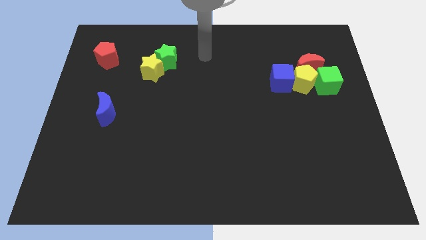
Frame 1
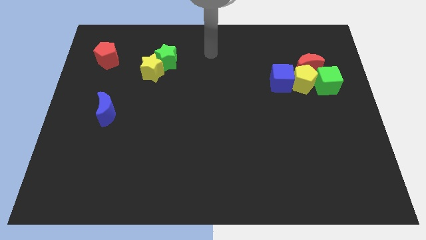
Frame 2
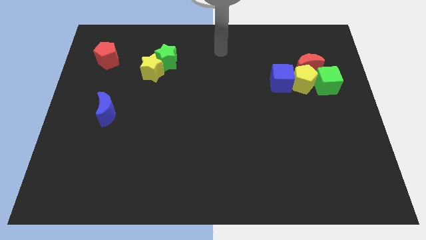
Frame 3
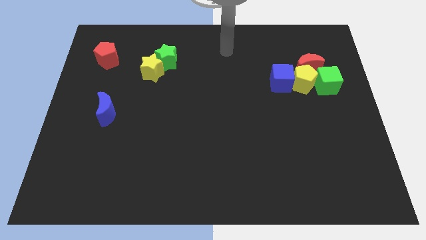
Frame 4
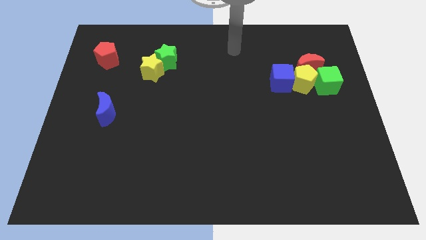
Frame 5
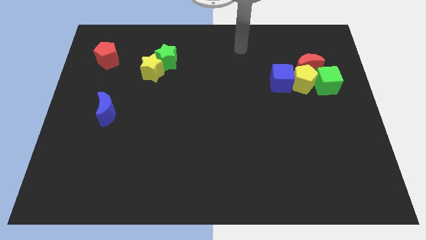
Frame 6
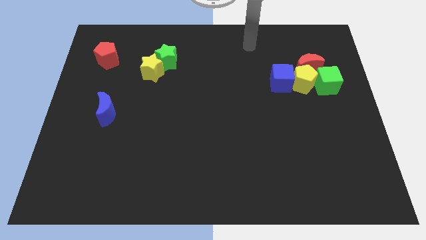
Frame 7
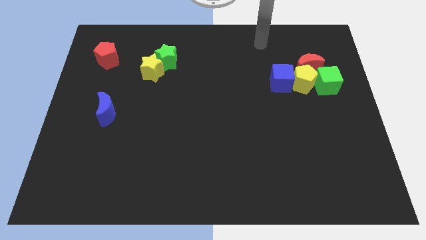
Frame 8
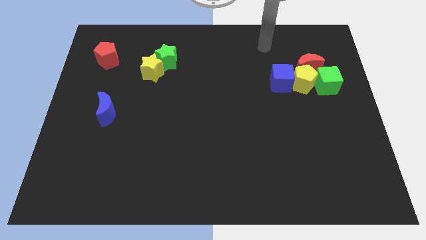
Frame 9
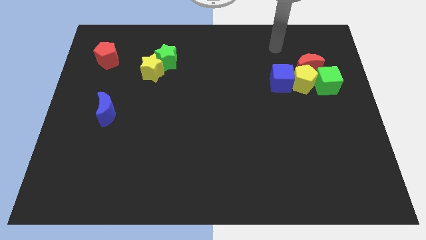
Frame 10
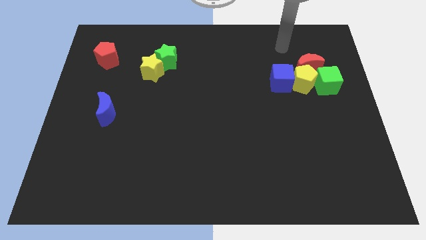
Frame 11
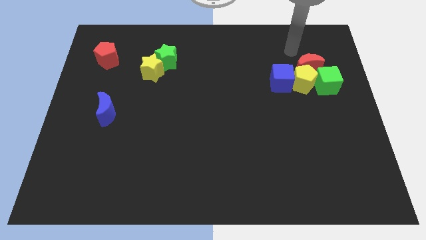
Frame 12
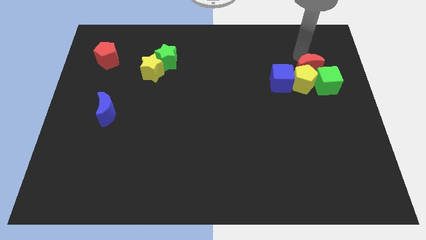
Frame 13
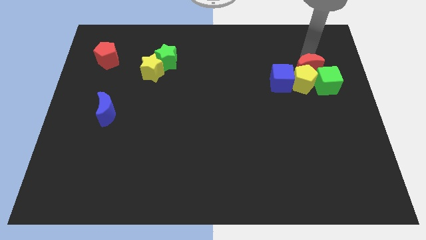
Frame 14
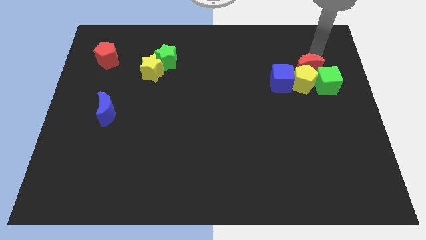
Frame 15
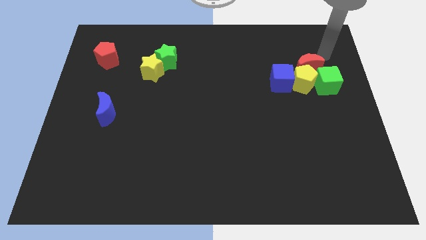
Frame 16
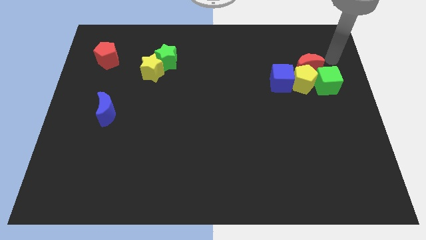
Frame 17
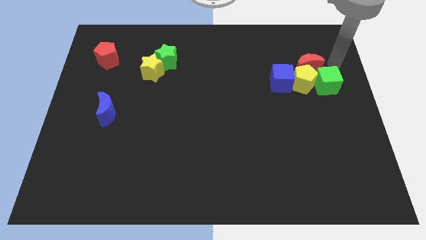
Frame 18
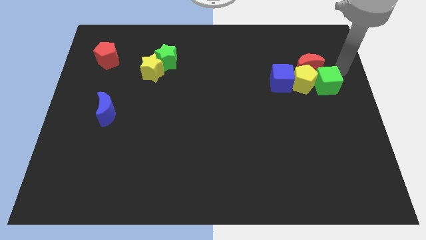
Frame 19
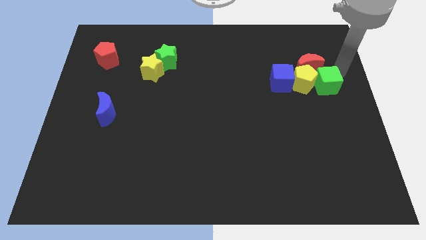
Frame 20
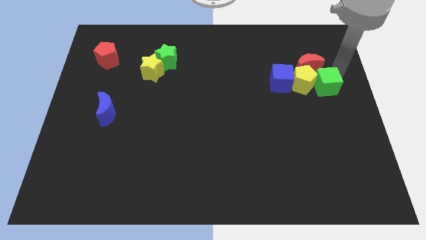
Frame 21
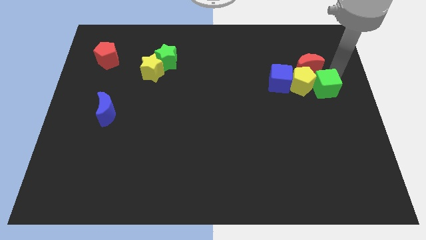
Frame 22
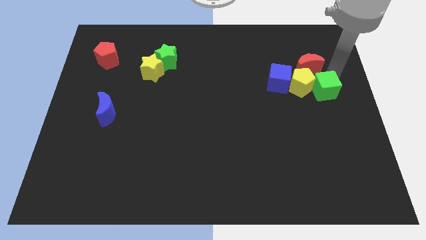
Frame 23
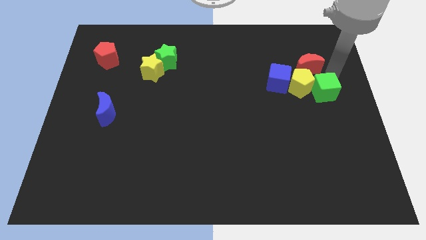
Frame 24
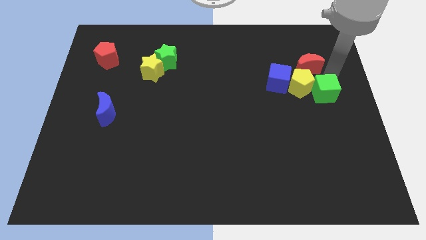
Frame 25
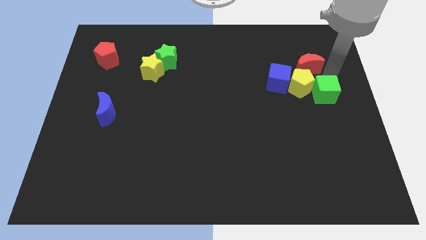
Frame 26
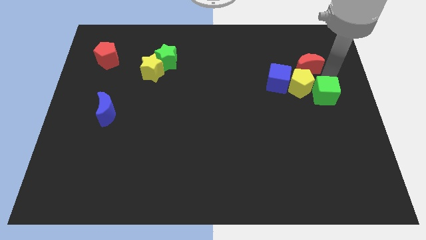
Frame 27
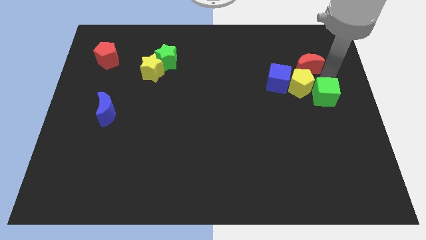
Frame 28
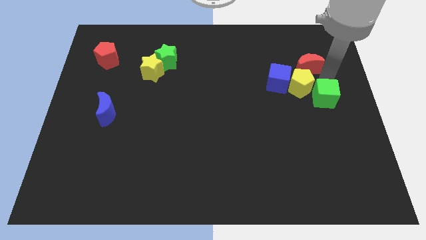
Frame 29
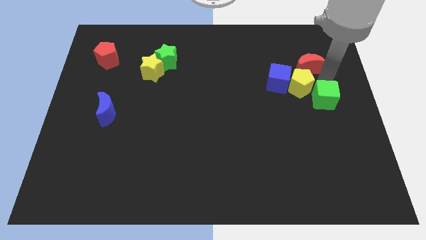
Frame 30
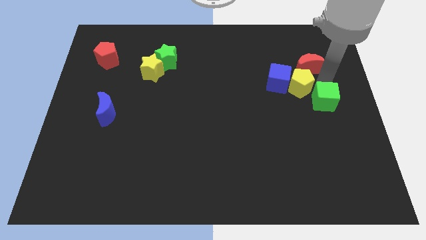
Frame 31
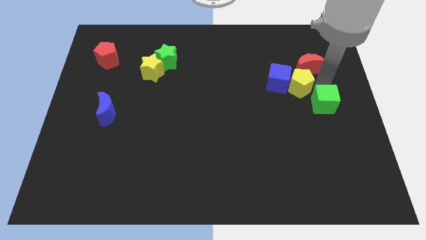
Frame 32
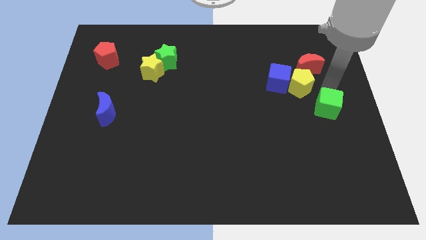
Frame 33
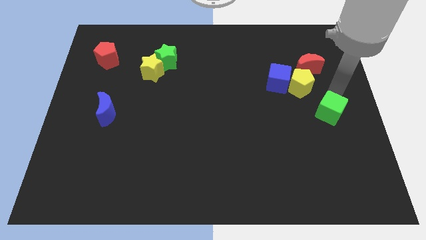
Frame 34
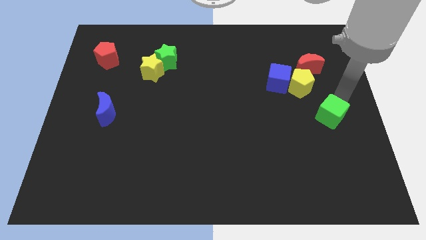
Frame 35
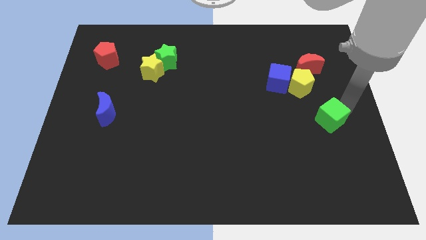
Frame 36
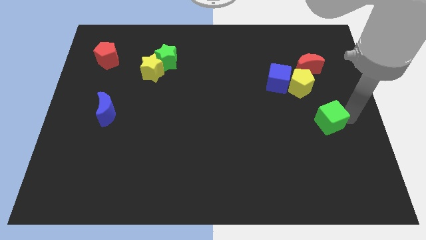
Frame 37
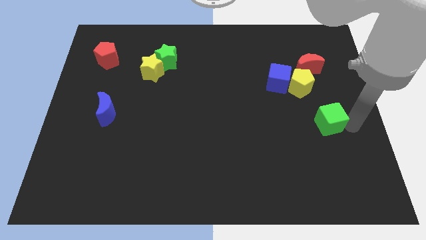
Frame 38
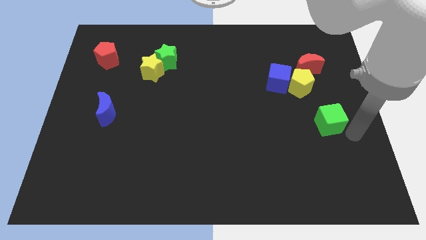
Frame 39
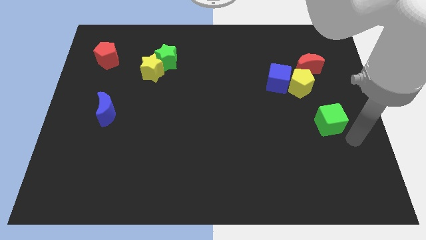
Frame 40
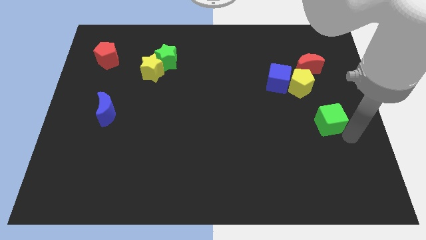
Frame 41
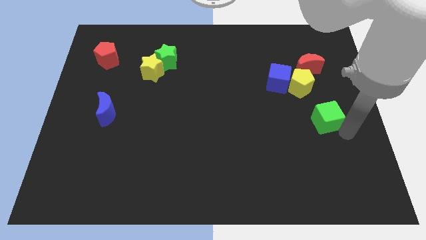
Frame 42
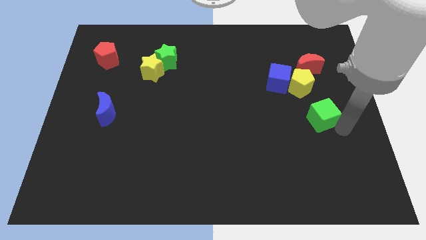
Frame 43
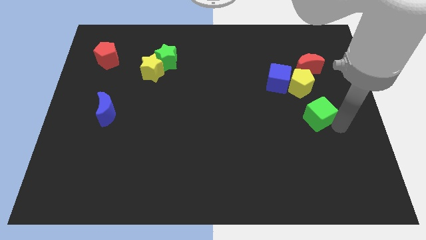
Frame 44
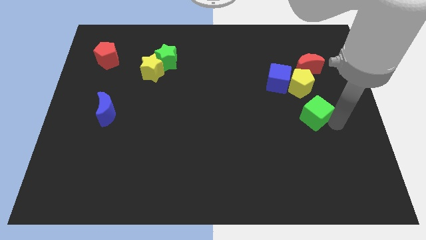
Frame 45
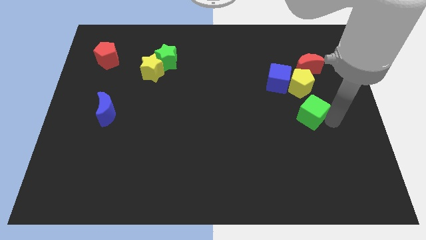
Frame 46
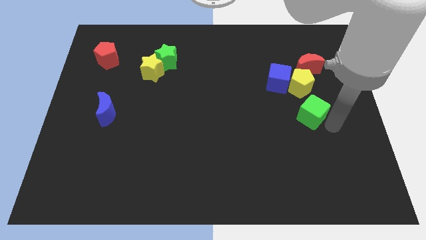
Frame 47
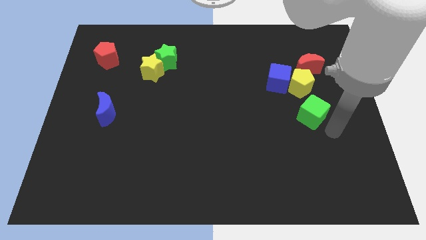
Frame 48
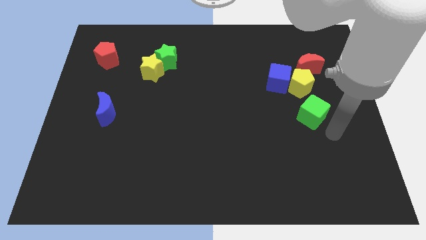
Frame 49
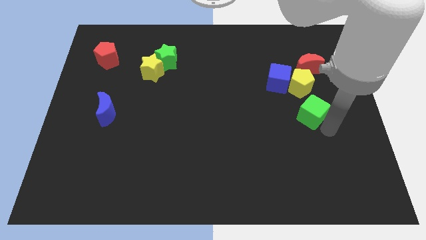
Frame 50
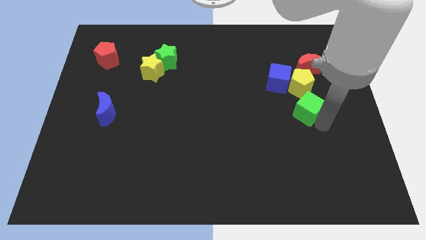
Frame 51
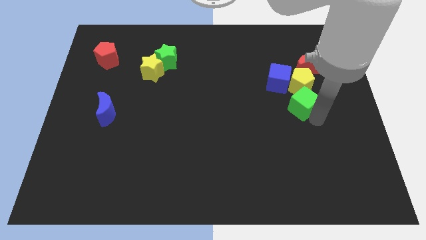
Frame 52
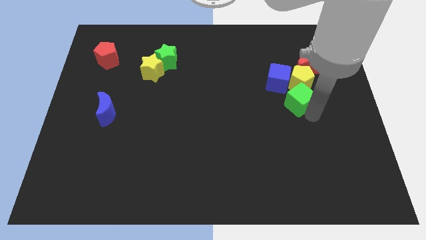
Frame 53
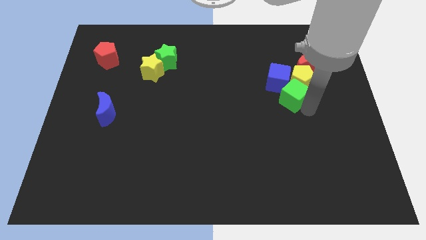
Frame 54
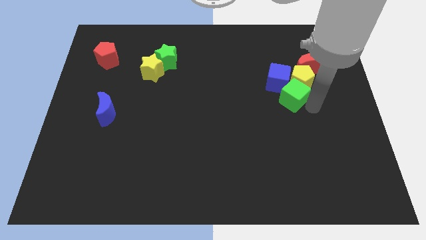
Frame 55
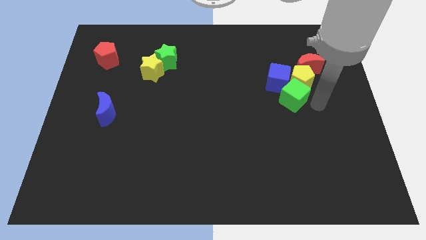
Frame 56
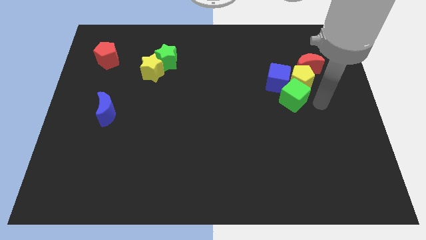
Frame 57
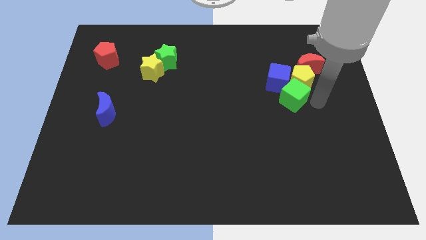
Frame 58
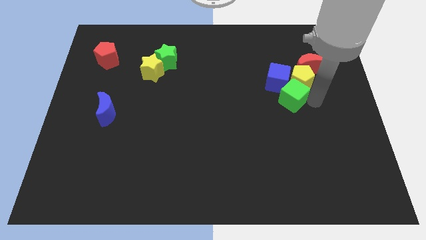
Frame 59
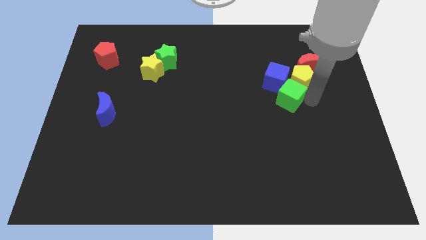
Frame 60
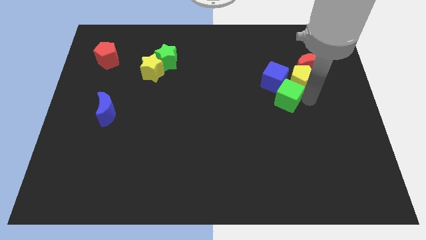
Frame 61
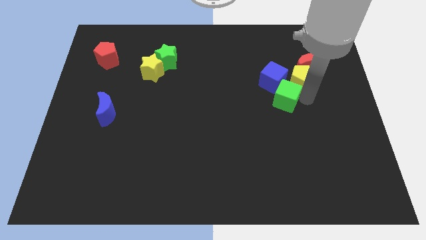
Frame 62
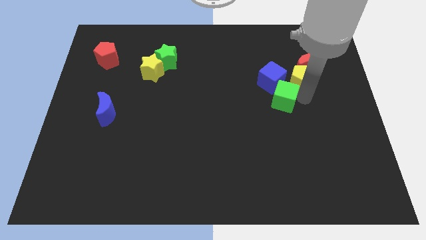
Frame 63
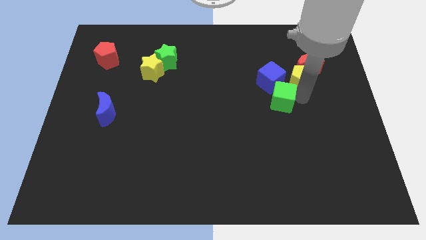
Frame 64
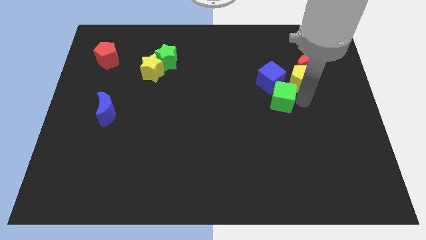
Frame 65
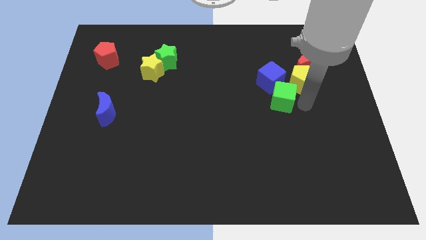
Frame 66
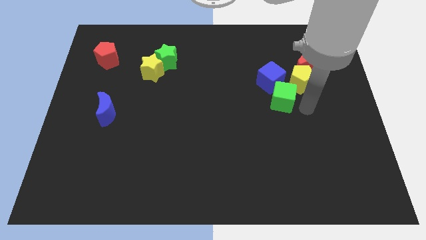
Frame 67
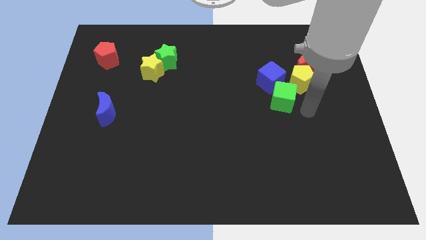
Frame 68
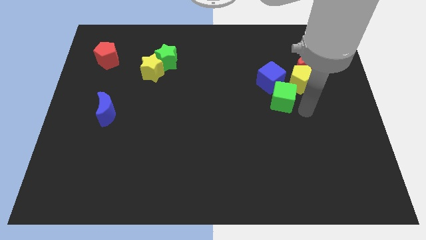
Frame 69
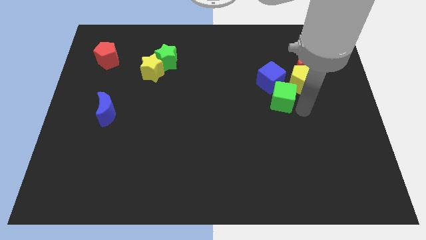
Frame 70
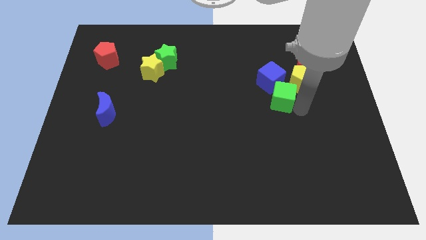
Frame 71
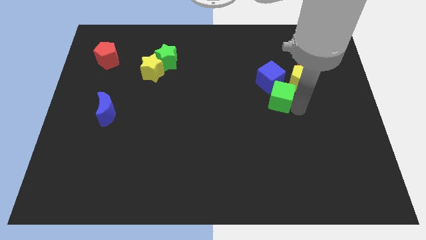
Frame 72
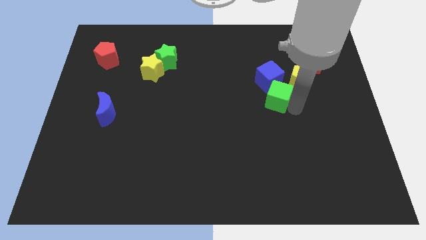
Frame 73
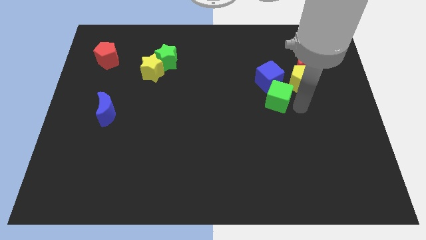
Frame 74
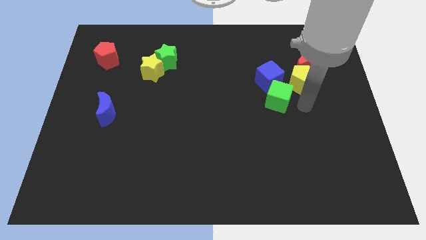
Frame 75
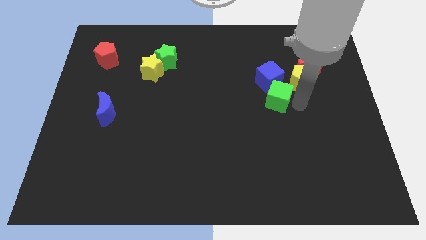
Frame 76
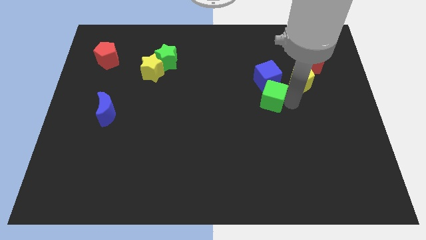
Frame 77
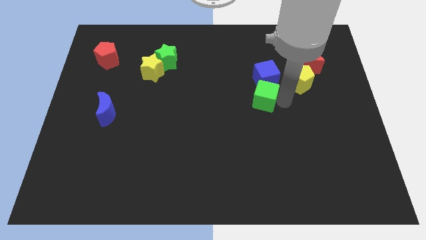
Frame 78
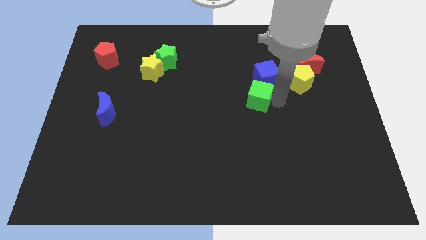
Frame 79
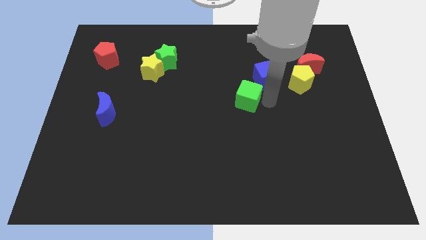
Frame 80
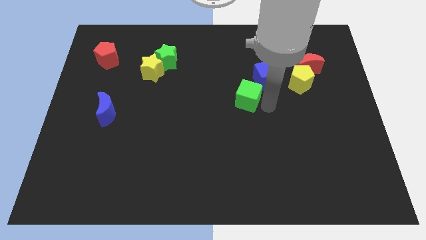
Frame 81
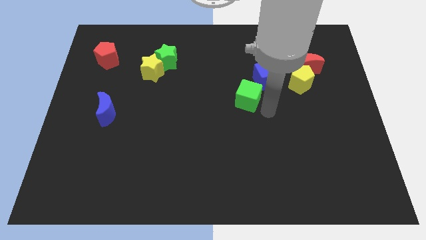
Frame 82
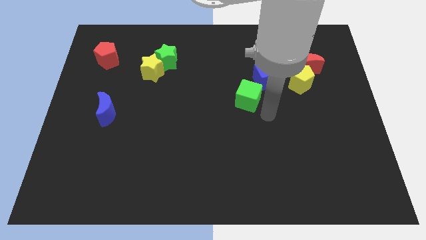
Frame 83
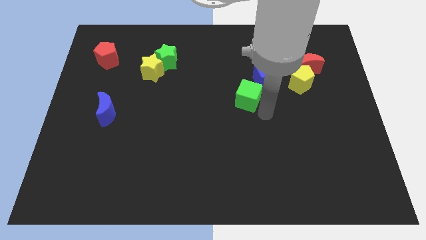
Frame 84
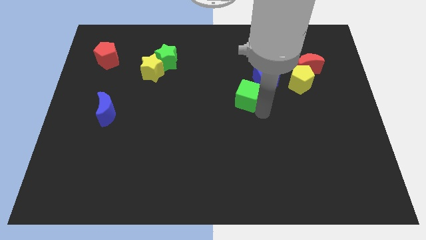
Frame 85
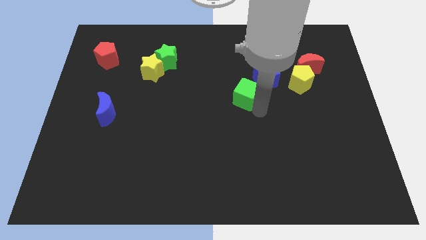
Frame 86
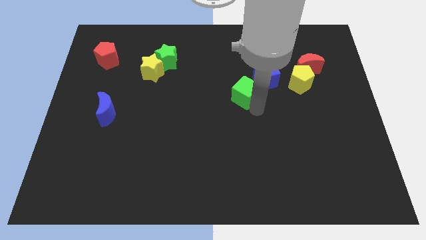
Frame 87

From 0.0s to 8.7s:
move the green cube to the left
